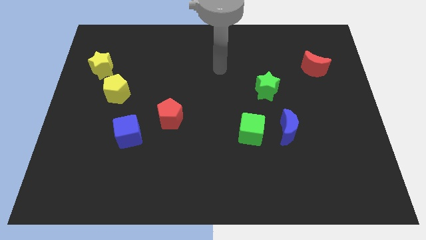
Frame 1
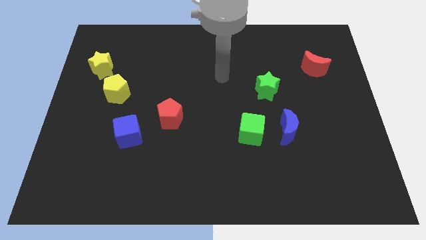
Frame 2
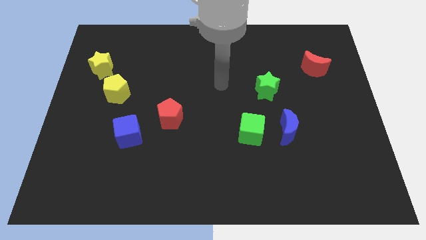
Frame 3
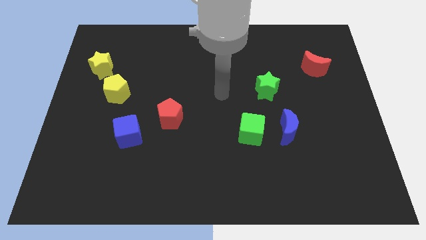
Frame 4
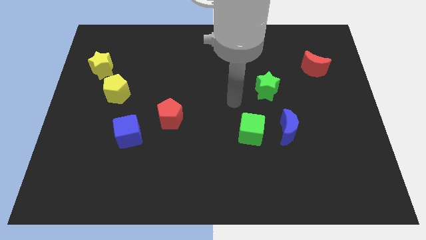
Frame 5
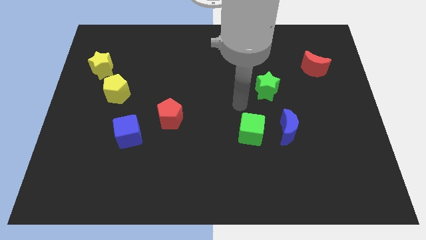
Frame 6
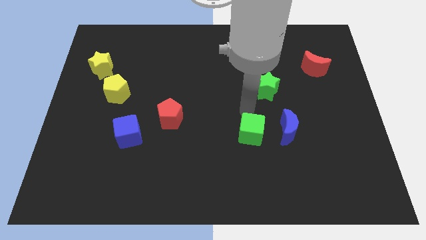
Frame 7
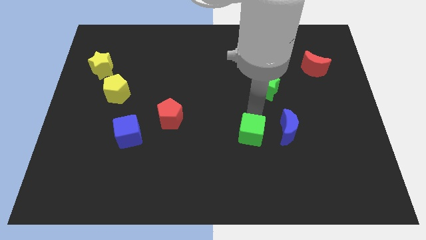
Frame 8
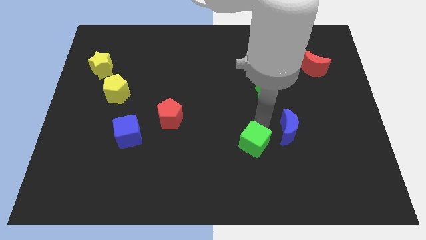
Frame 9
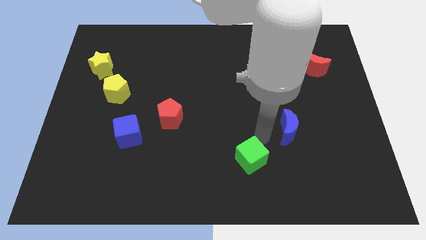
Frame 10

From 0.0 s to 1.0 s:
move the blue moon away from the green cube

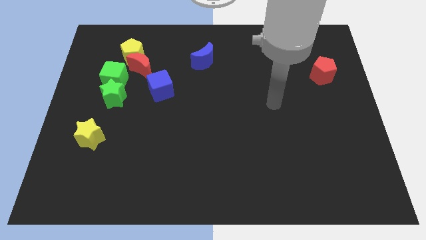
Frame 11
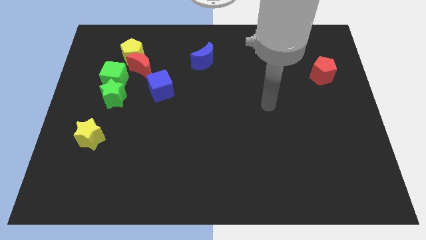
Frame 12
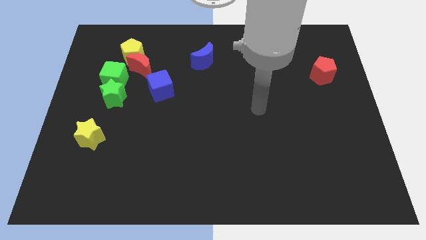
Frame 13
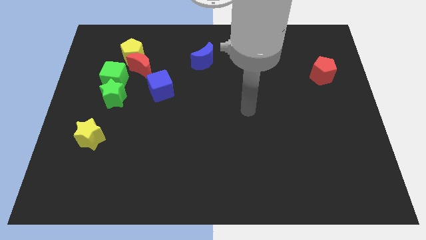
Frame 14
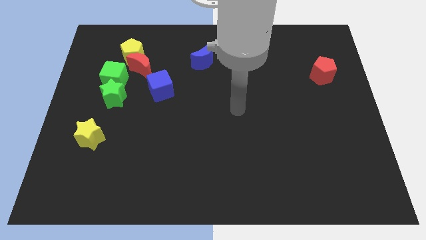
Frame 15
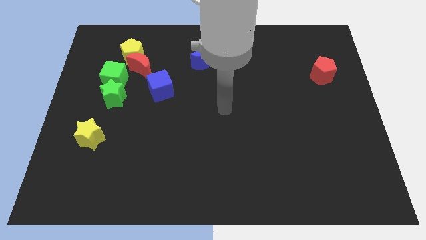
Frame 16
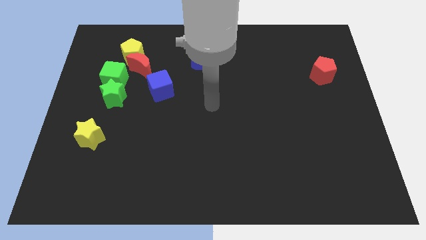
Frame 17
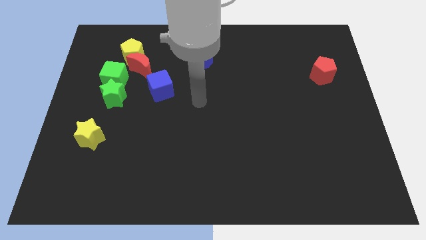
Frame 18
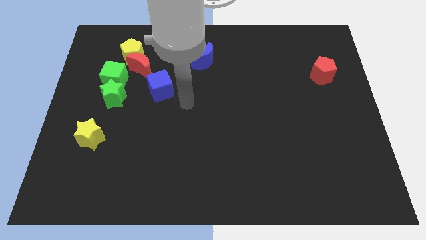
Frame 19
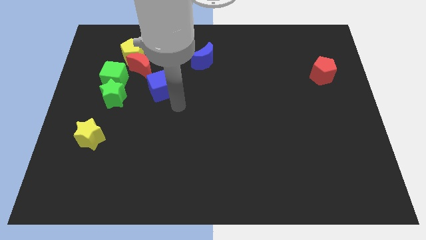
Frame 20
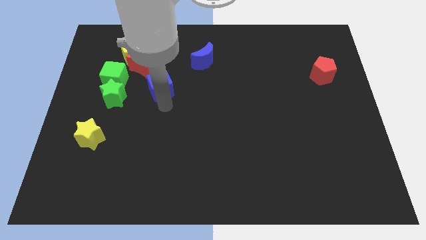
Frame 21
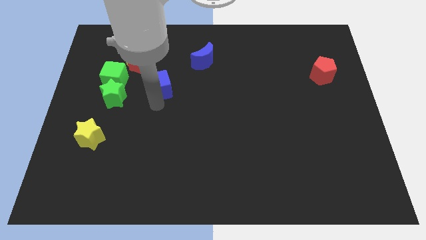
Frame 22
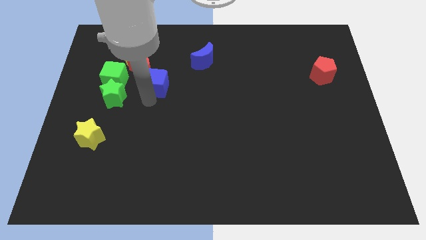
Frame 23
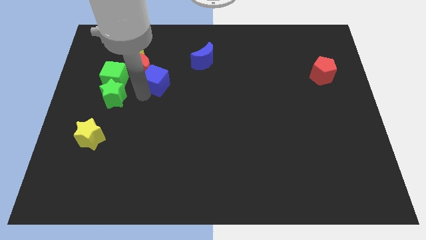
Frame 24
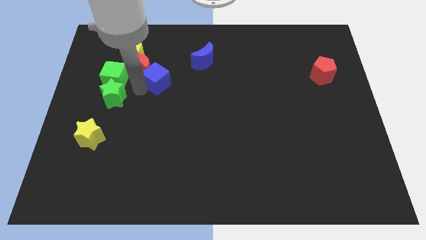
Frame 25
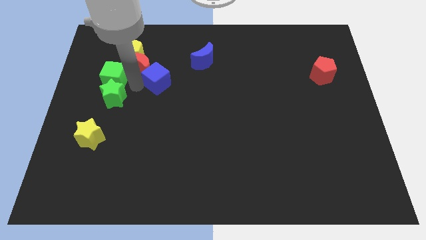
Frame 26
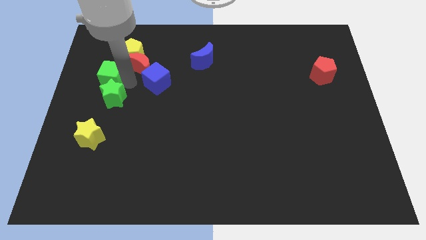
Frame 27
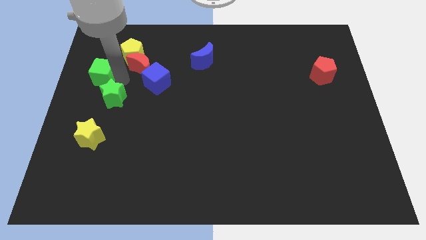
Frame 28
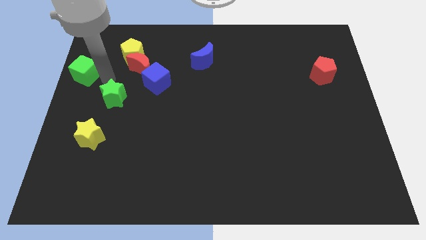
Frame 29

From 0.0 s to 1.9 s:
separate the green star from the green cube

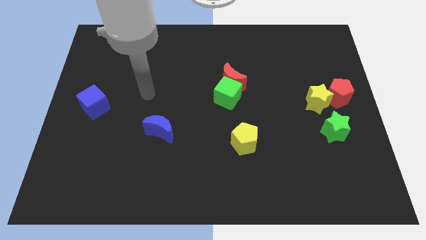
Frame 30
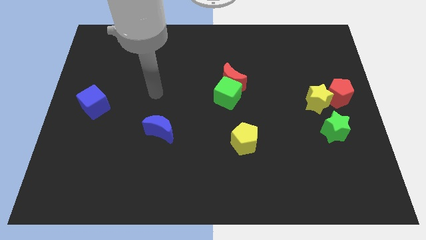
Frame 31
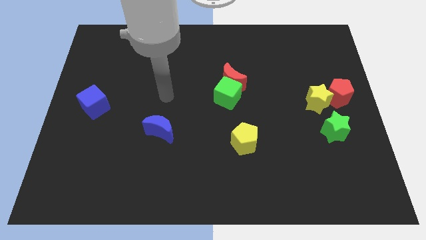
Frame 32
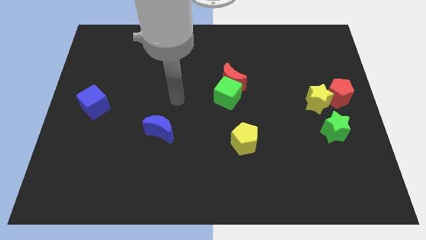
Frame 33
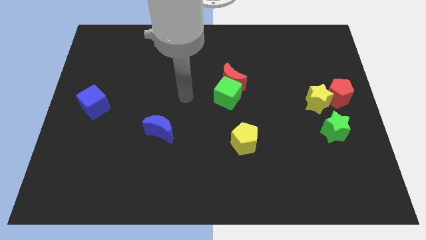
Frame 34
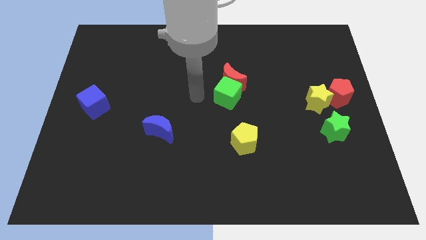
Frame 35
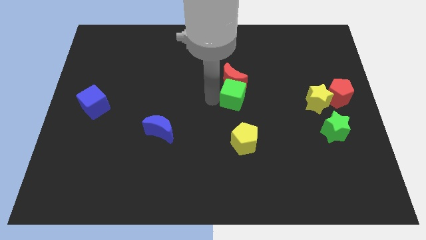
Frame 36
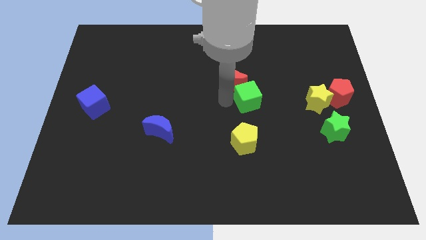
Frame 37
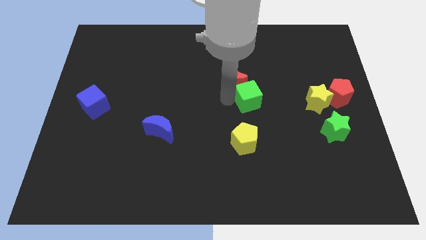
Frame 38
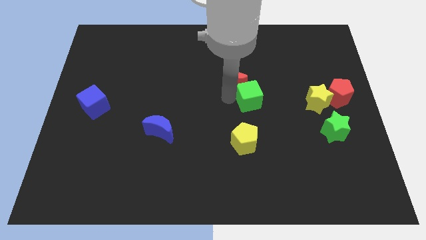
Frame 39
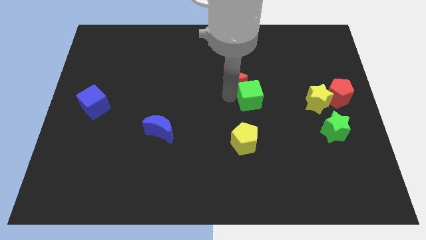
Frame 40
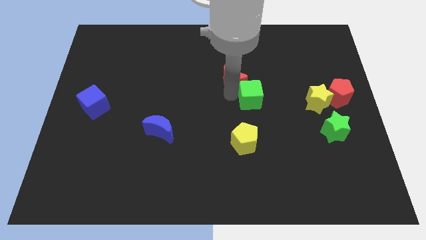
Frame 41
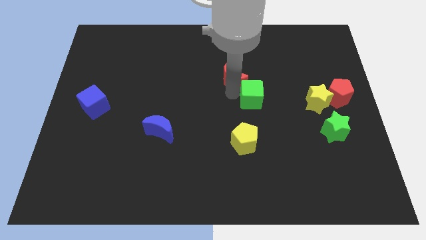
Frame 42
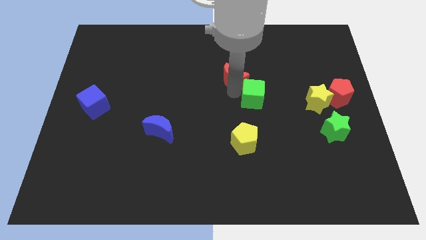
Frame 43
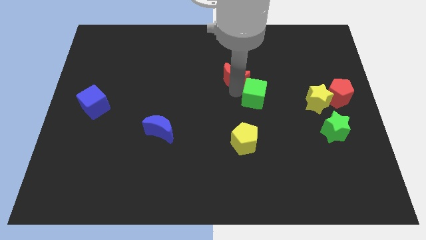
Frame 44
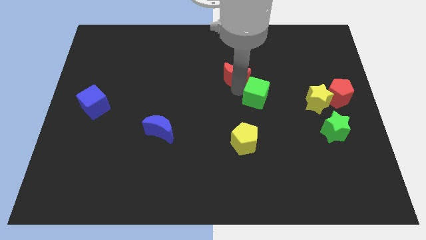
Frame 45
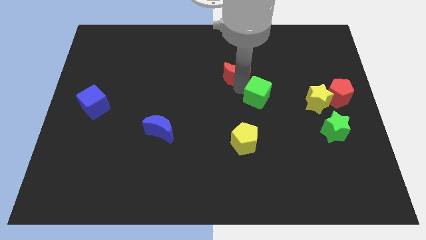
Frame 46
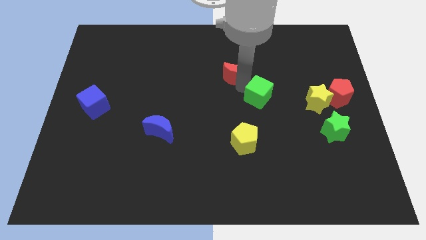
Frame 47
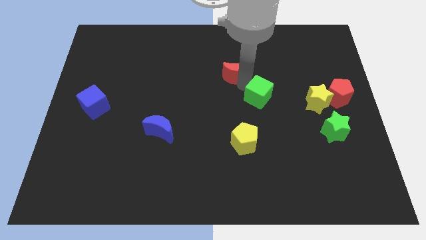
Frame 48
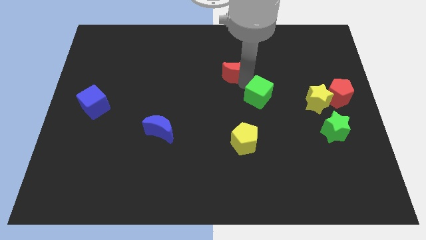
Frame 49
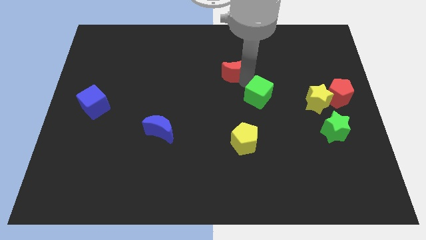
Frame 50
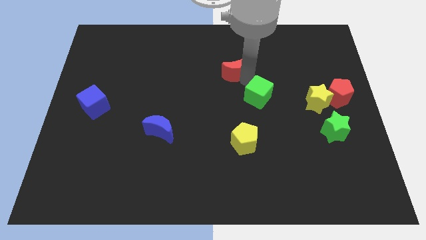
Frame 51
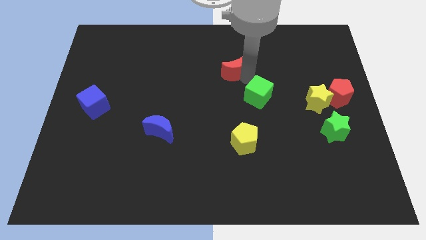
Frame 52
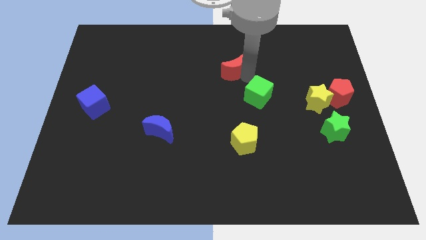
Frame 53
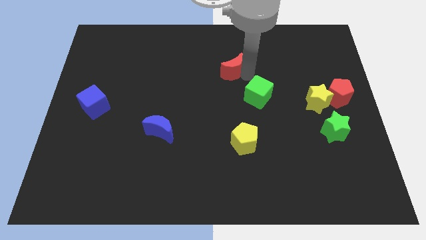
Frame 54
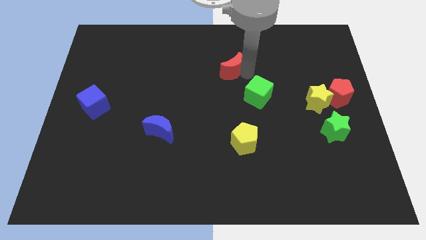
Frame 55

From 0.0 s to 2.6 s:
pull the red moon apart from the green cube

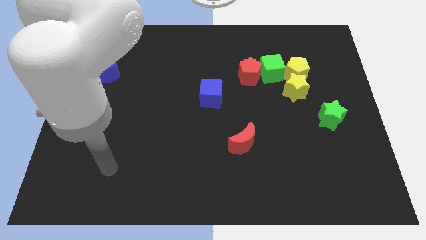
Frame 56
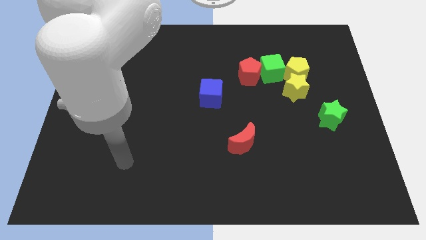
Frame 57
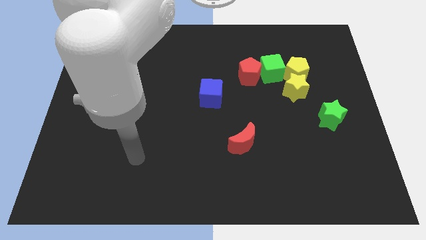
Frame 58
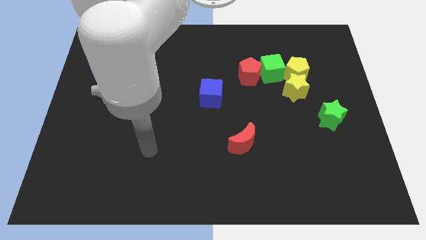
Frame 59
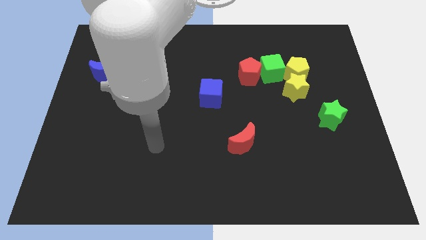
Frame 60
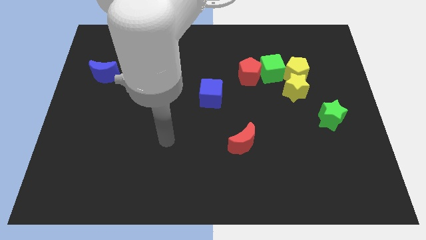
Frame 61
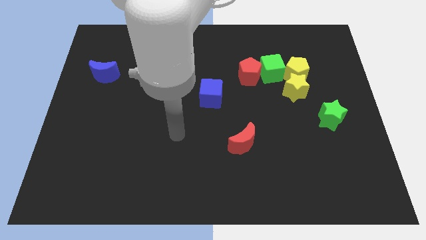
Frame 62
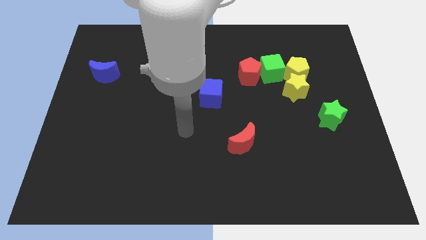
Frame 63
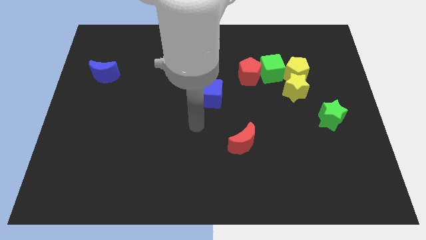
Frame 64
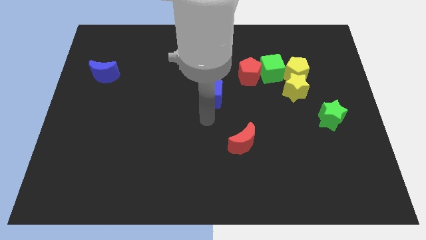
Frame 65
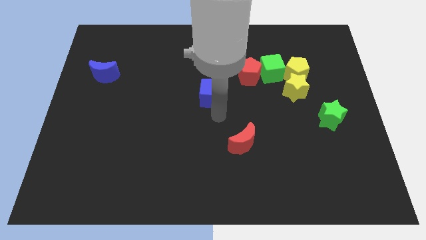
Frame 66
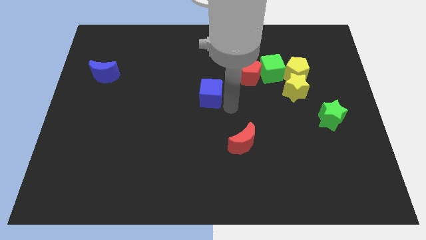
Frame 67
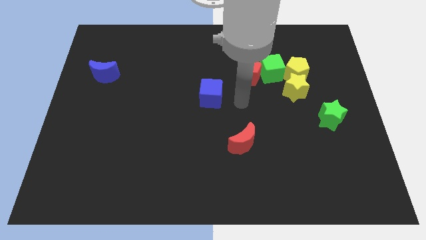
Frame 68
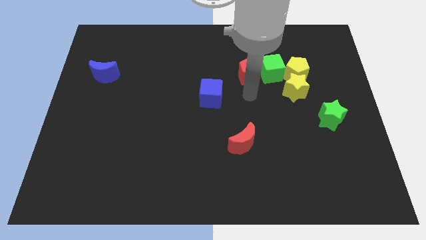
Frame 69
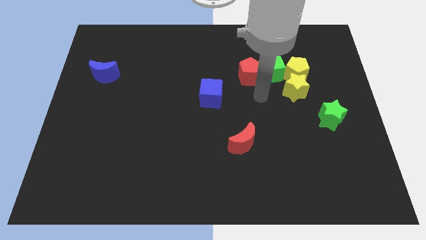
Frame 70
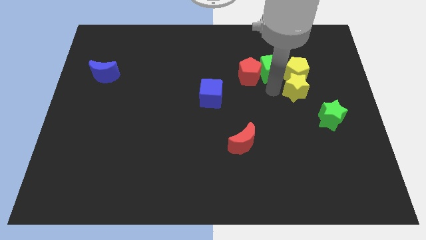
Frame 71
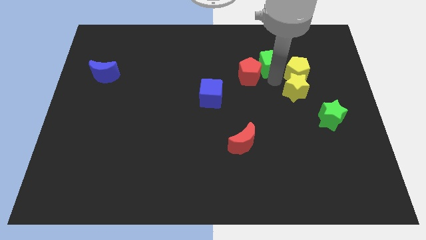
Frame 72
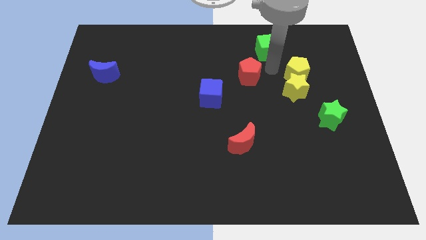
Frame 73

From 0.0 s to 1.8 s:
separate the red pentagon from the green cube

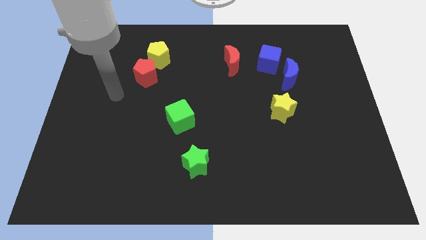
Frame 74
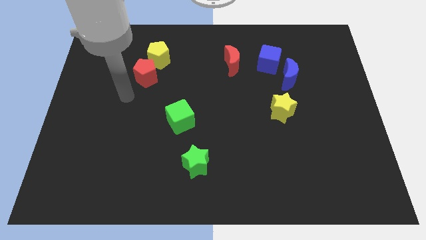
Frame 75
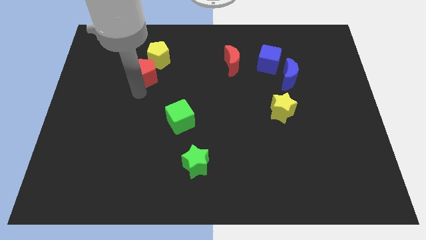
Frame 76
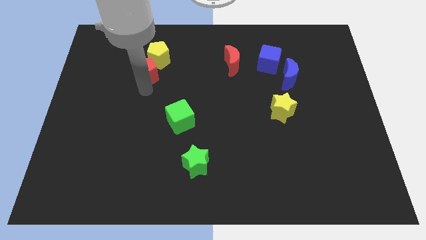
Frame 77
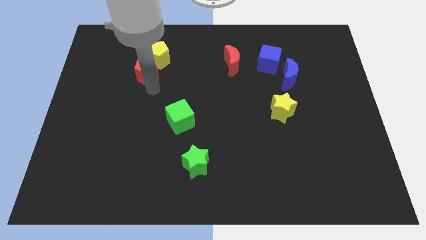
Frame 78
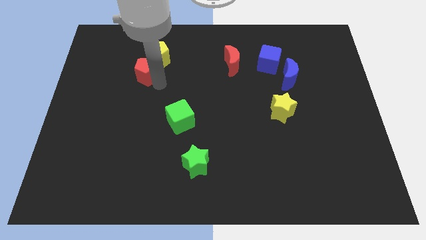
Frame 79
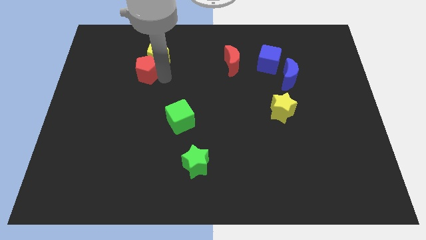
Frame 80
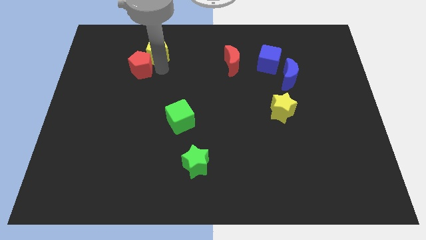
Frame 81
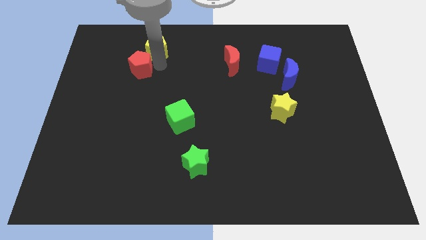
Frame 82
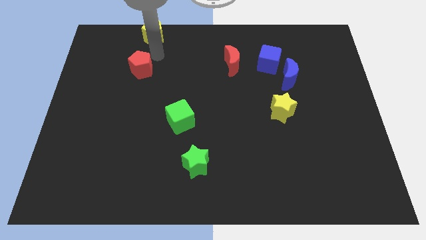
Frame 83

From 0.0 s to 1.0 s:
pull the red pentagon apart from the yellow pentagon

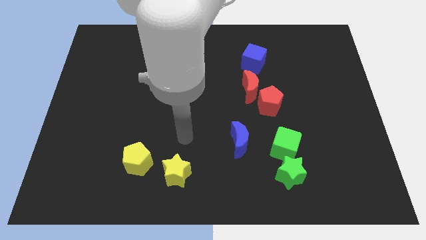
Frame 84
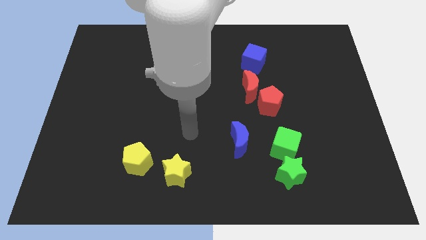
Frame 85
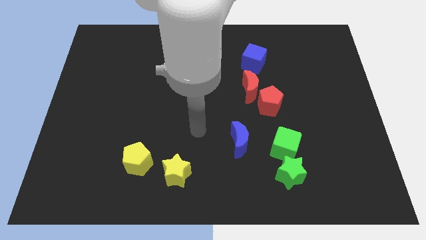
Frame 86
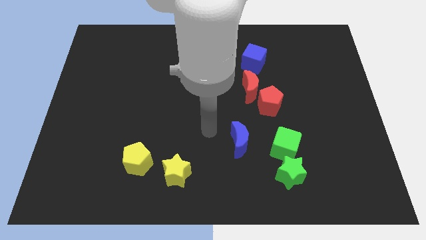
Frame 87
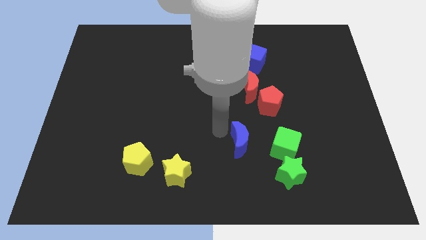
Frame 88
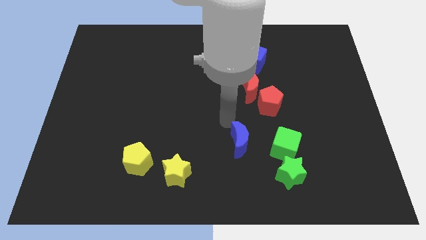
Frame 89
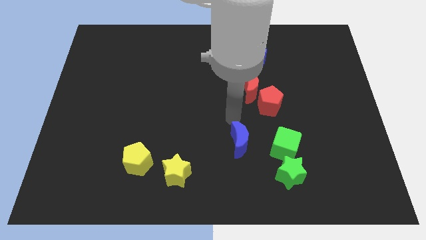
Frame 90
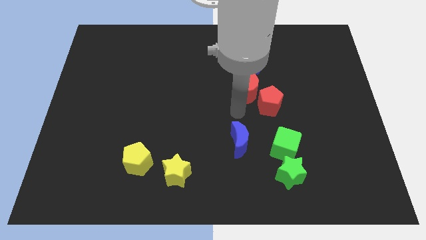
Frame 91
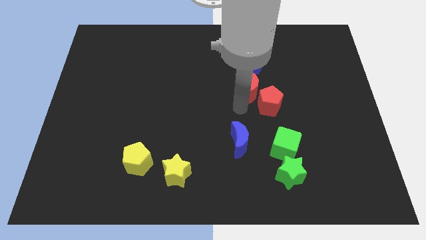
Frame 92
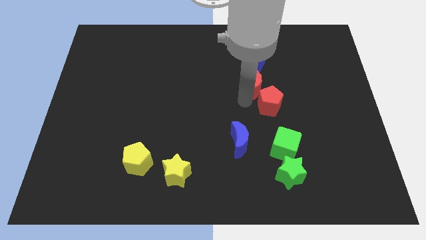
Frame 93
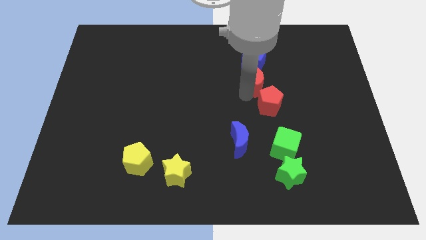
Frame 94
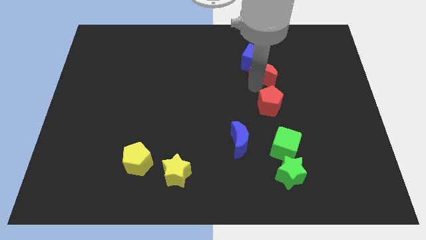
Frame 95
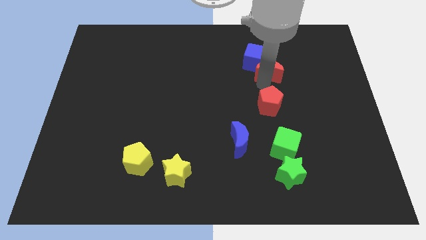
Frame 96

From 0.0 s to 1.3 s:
move the red pentagon away from the red moon
